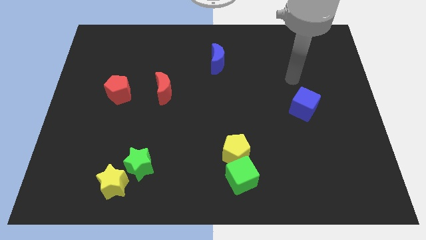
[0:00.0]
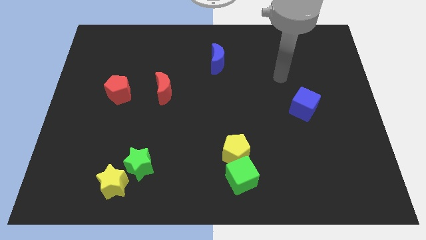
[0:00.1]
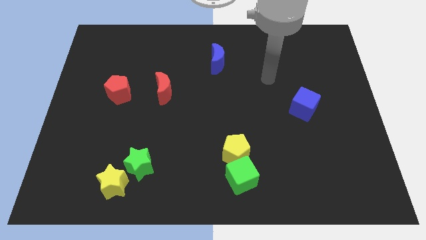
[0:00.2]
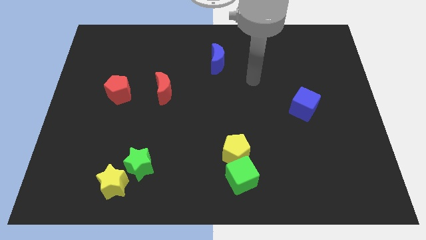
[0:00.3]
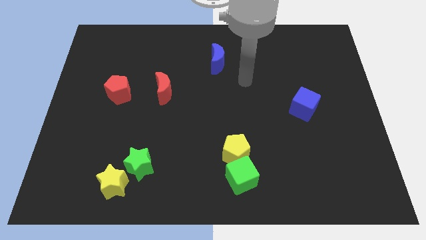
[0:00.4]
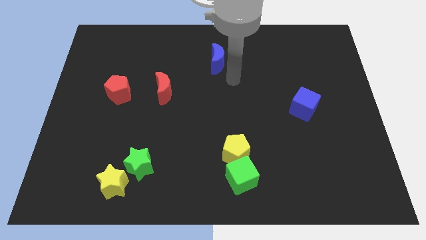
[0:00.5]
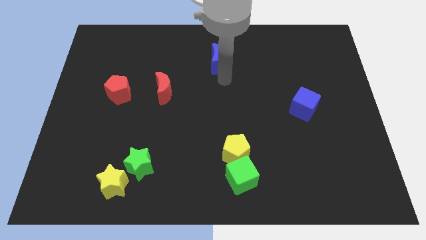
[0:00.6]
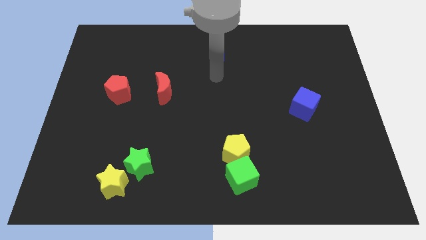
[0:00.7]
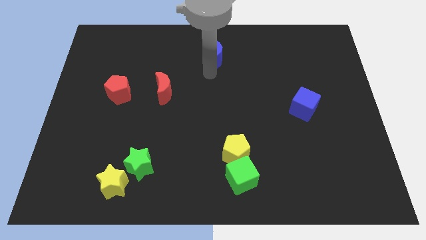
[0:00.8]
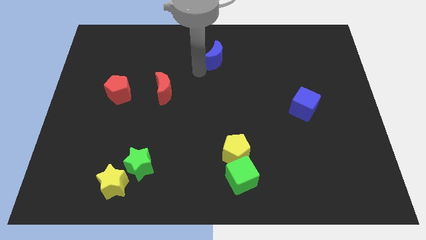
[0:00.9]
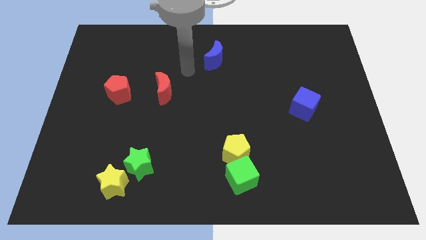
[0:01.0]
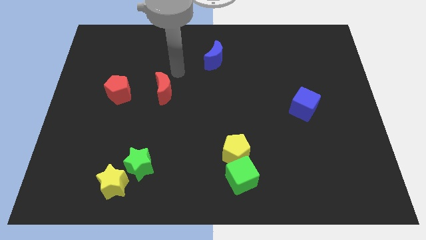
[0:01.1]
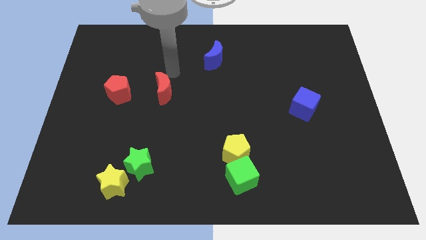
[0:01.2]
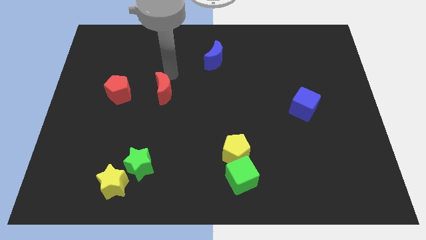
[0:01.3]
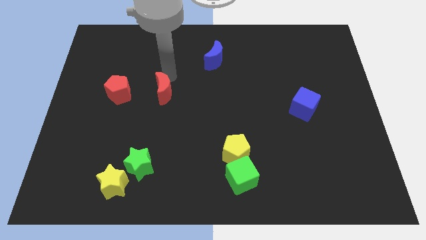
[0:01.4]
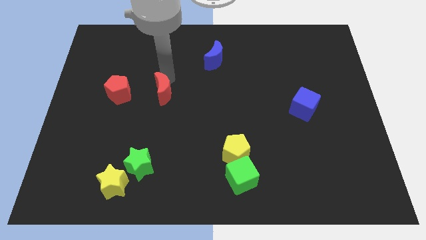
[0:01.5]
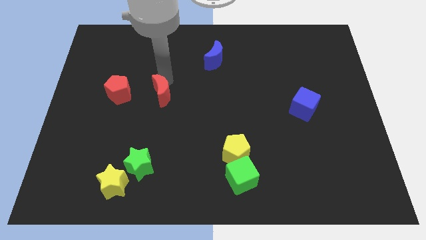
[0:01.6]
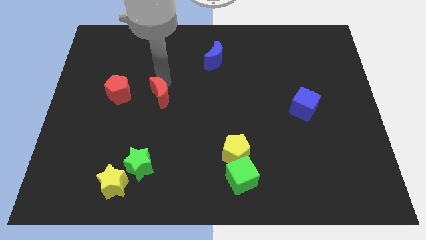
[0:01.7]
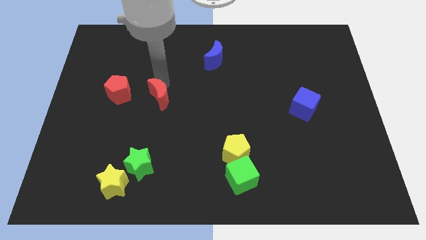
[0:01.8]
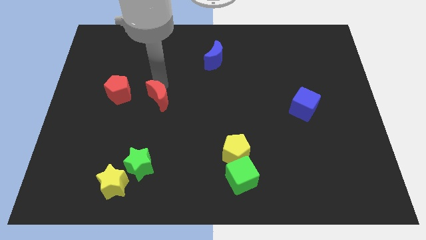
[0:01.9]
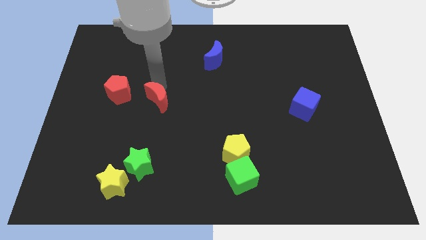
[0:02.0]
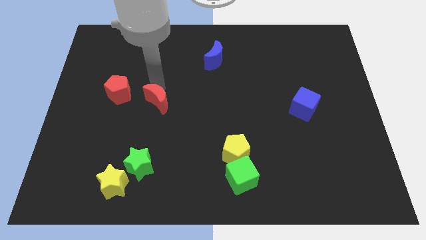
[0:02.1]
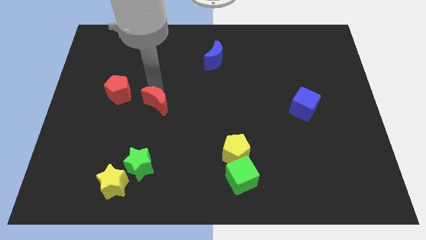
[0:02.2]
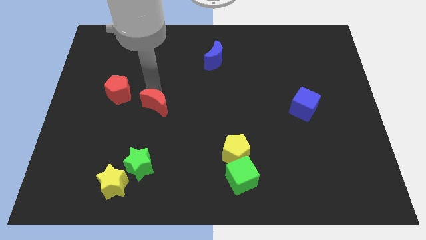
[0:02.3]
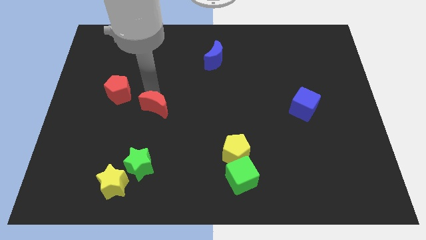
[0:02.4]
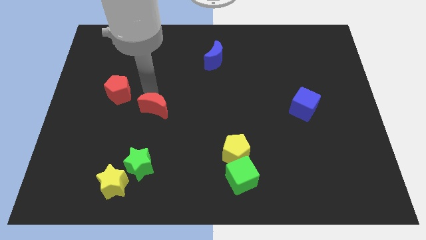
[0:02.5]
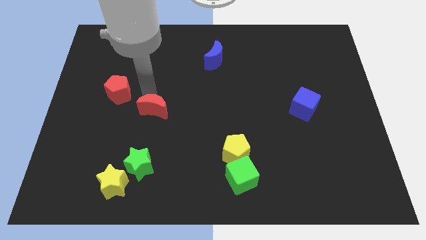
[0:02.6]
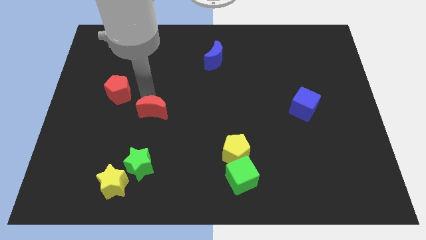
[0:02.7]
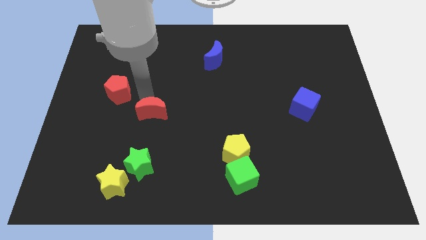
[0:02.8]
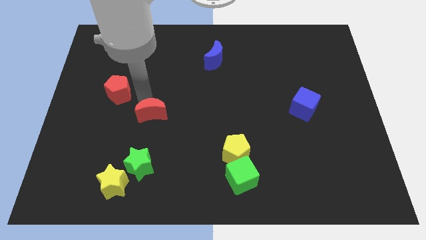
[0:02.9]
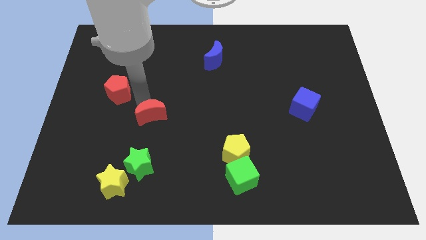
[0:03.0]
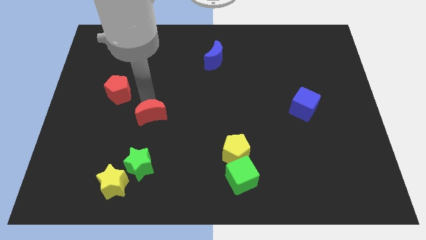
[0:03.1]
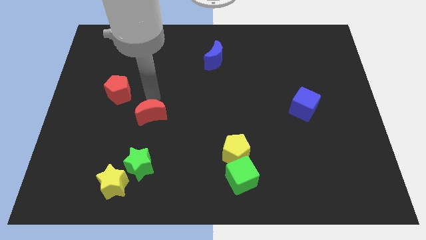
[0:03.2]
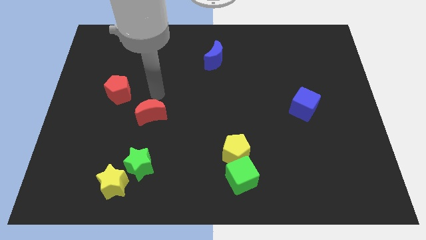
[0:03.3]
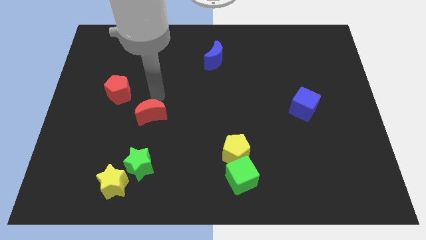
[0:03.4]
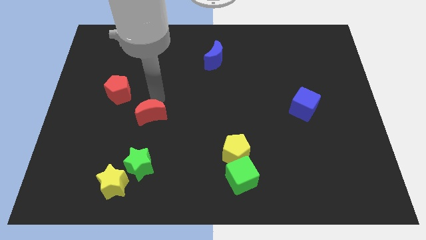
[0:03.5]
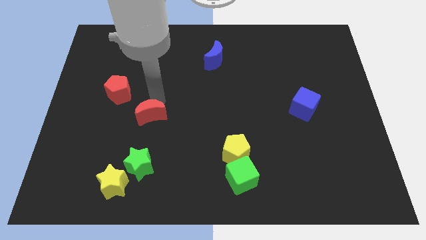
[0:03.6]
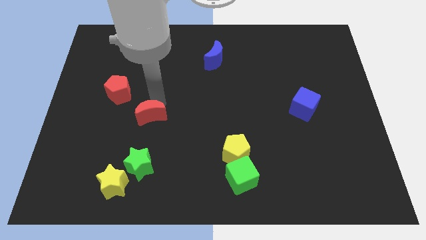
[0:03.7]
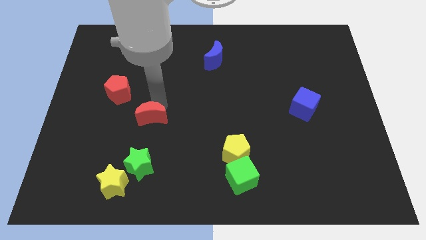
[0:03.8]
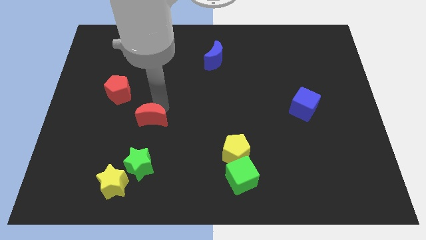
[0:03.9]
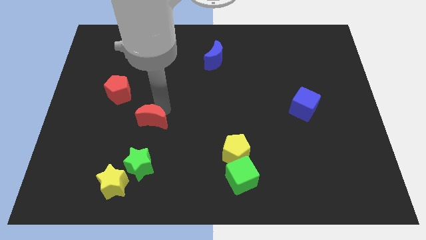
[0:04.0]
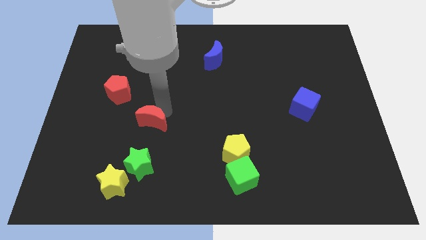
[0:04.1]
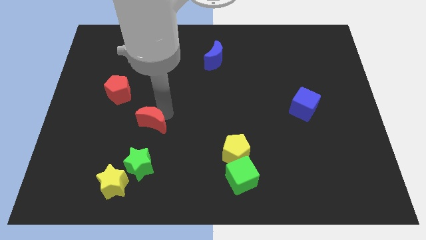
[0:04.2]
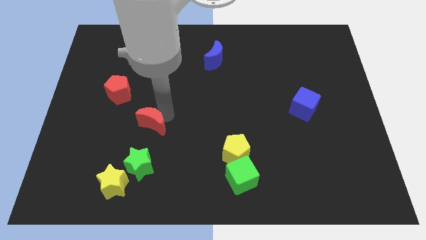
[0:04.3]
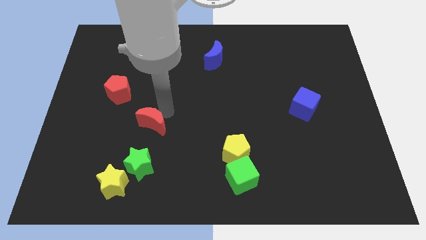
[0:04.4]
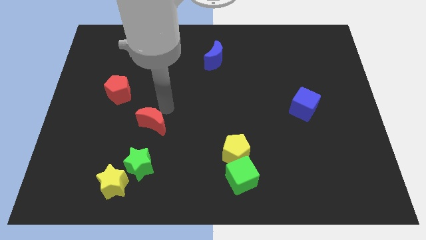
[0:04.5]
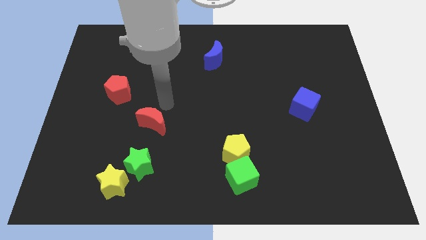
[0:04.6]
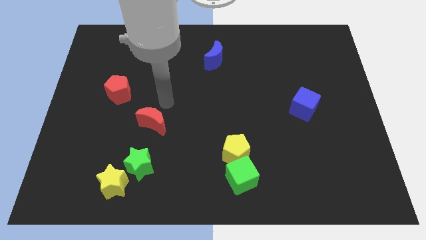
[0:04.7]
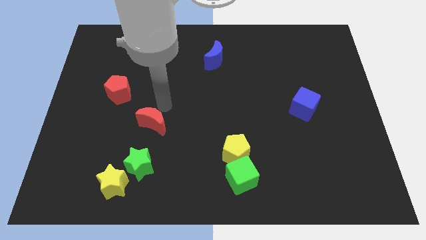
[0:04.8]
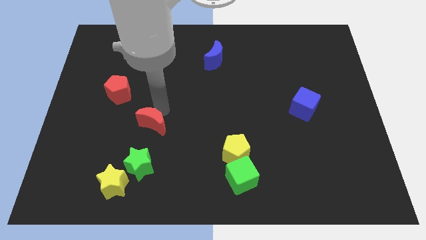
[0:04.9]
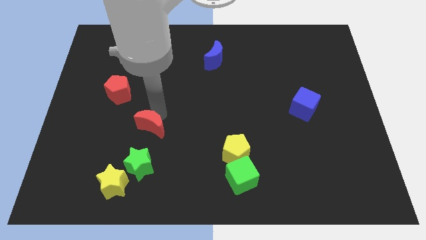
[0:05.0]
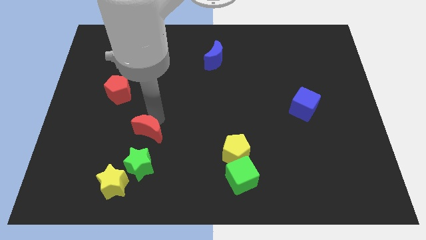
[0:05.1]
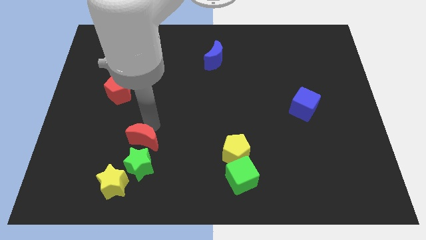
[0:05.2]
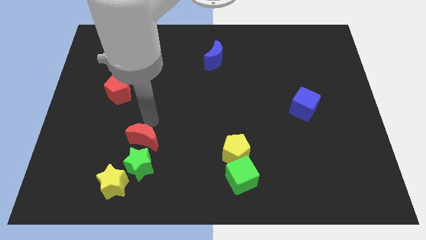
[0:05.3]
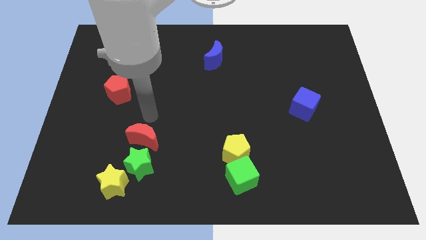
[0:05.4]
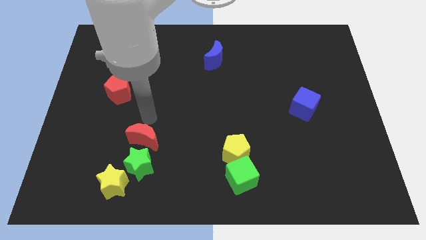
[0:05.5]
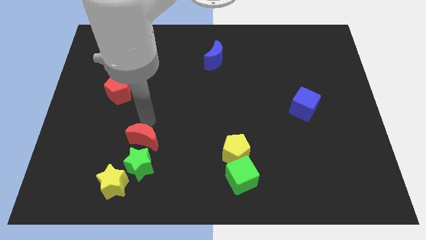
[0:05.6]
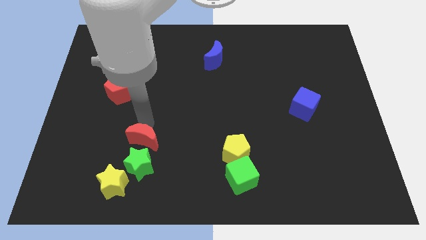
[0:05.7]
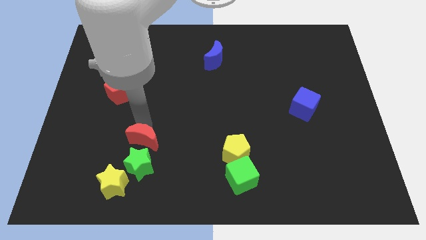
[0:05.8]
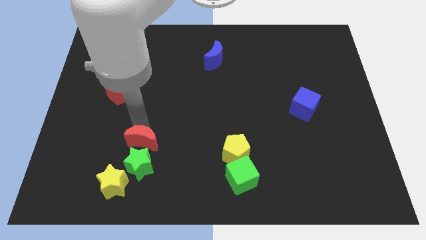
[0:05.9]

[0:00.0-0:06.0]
put the red moon towards the green star

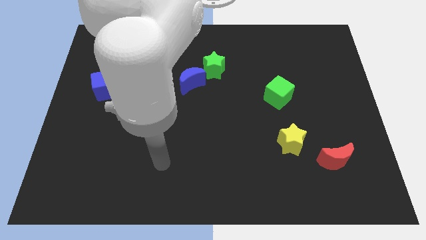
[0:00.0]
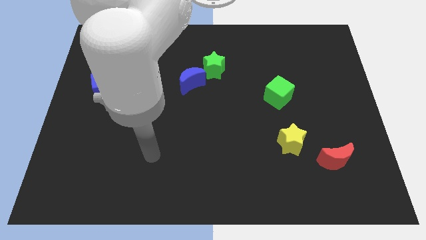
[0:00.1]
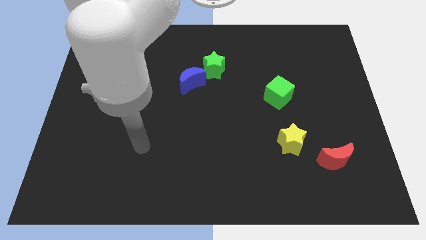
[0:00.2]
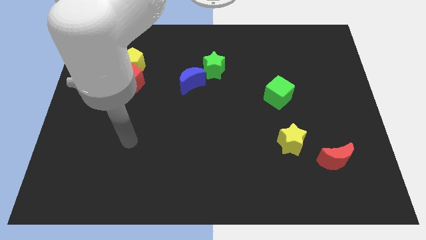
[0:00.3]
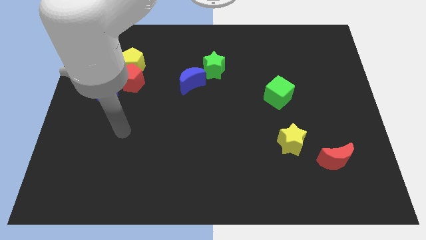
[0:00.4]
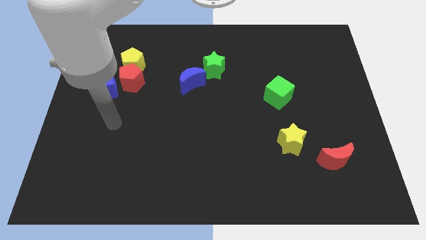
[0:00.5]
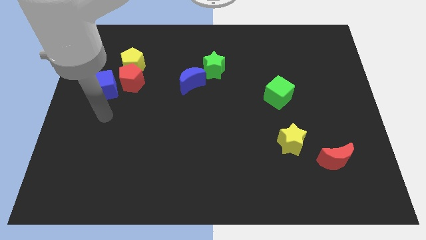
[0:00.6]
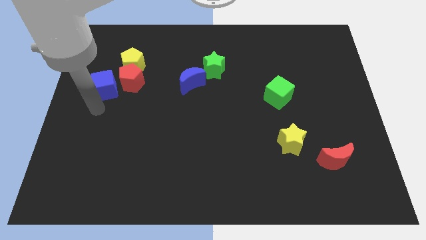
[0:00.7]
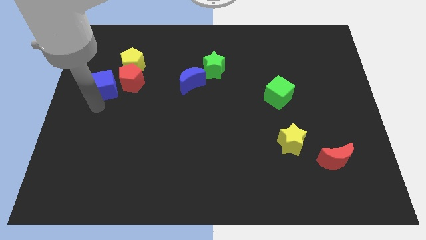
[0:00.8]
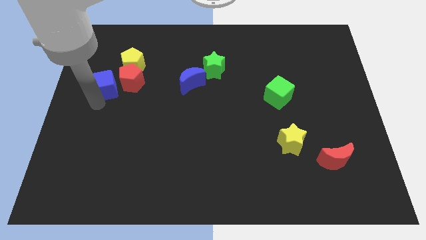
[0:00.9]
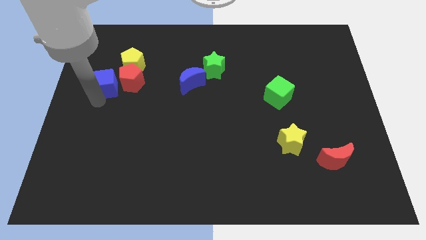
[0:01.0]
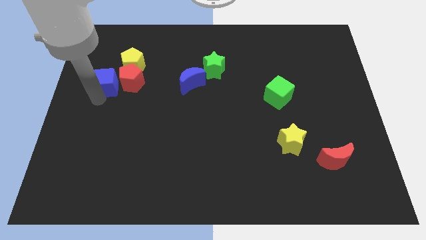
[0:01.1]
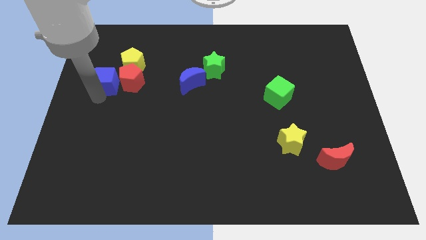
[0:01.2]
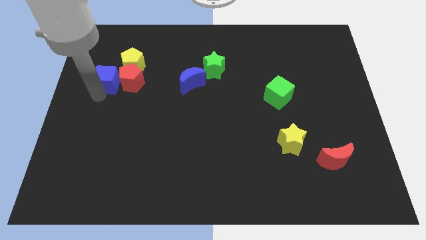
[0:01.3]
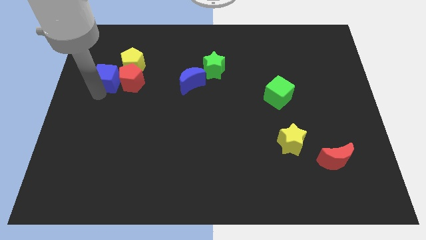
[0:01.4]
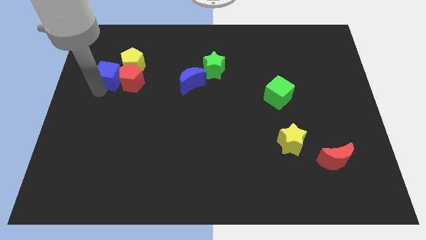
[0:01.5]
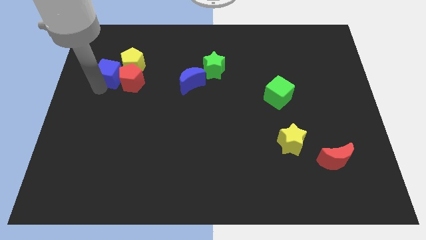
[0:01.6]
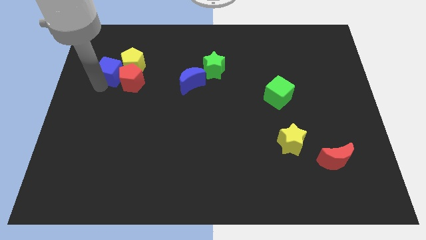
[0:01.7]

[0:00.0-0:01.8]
move the blue cube next to the yellow pentagon
